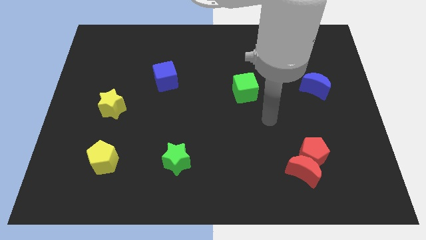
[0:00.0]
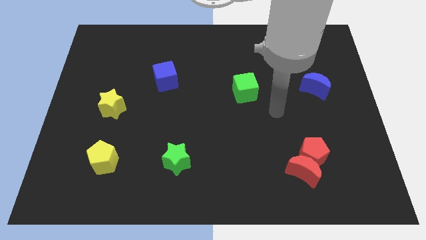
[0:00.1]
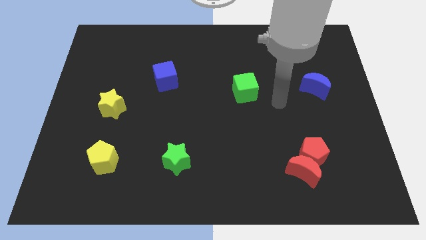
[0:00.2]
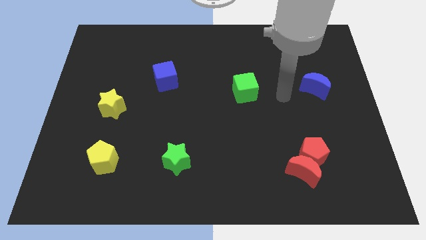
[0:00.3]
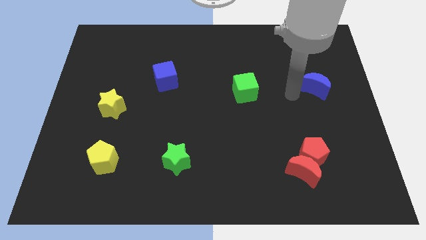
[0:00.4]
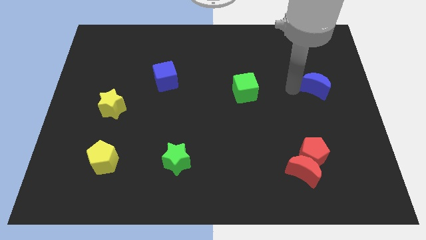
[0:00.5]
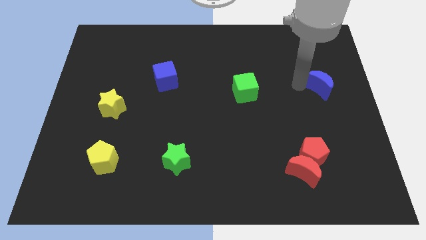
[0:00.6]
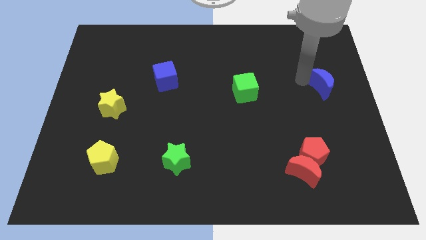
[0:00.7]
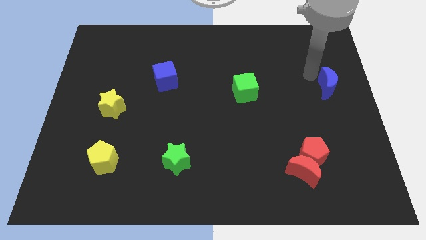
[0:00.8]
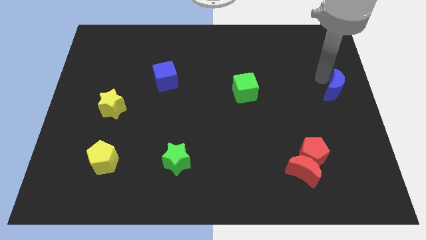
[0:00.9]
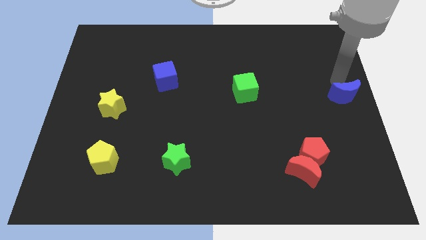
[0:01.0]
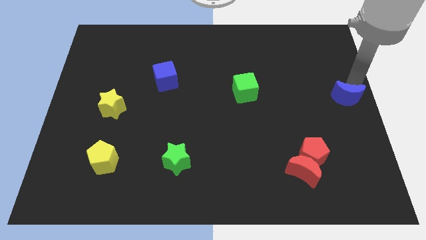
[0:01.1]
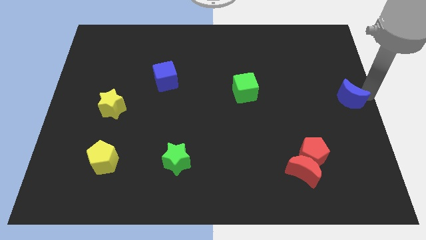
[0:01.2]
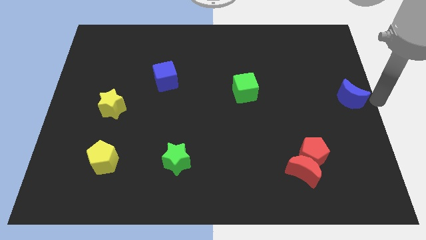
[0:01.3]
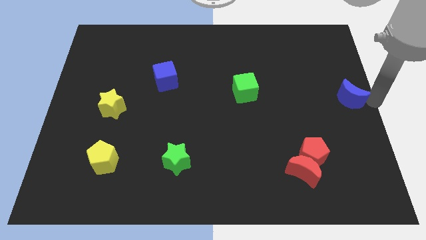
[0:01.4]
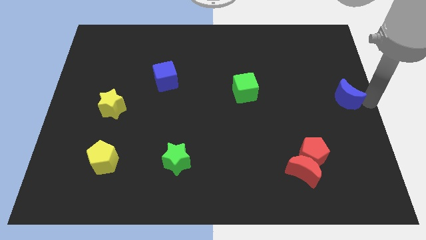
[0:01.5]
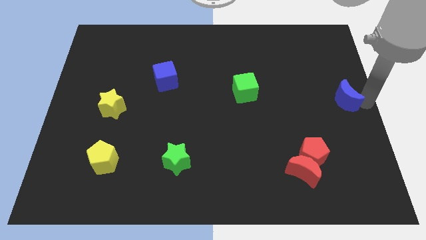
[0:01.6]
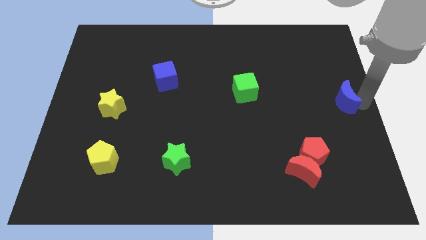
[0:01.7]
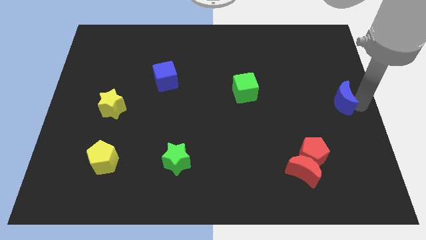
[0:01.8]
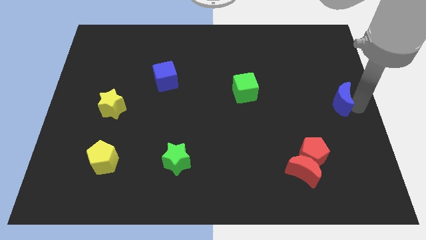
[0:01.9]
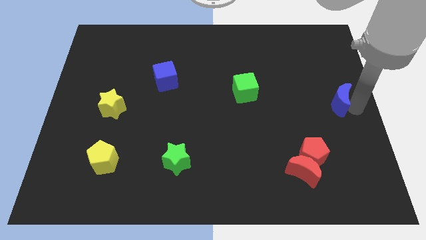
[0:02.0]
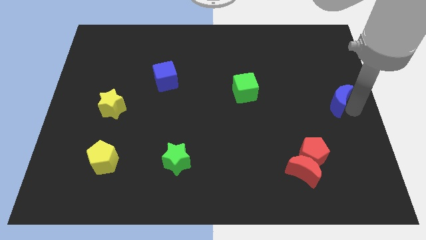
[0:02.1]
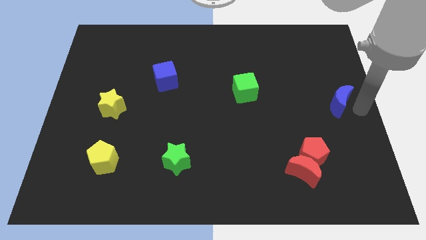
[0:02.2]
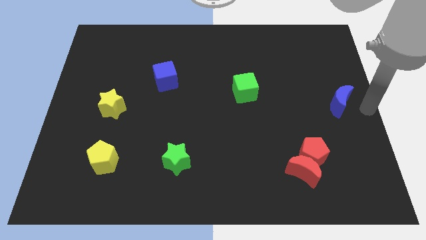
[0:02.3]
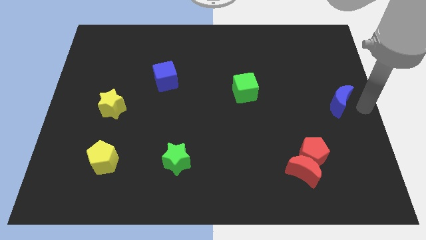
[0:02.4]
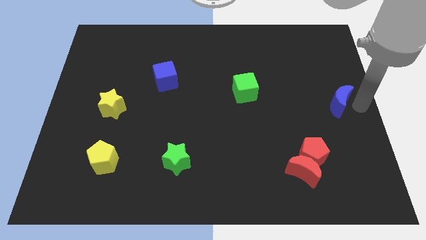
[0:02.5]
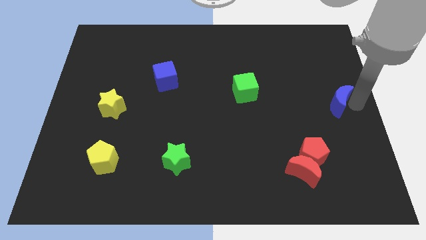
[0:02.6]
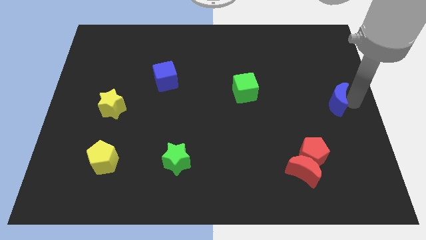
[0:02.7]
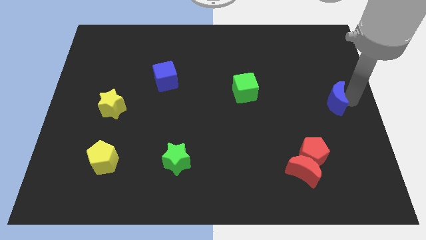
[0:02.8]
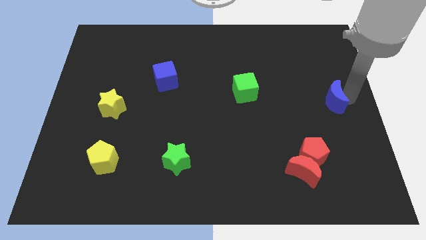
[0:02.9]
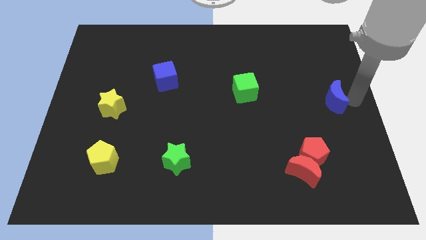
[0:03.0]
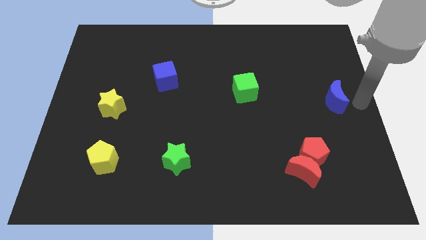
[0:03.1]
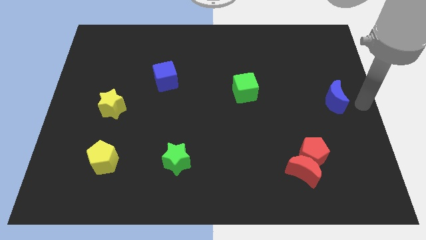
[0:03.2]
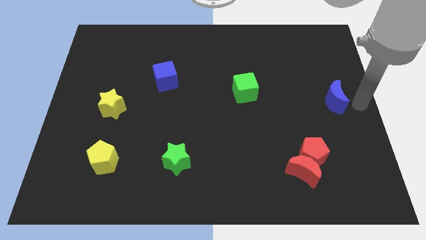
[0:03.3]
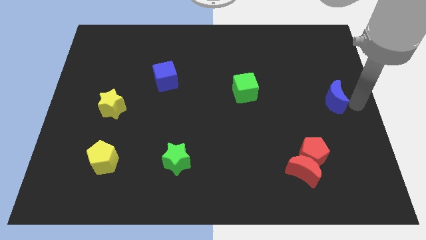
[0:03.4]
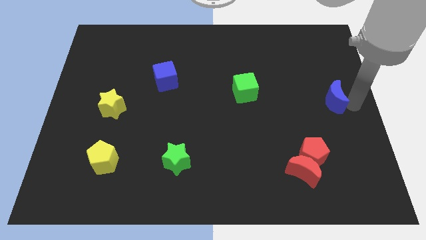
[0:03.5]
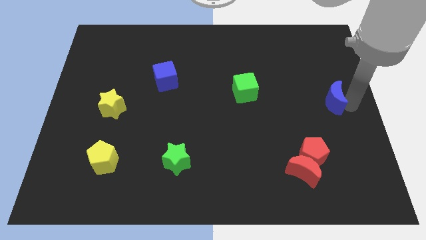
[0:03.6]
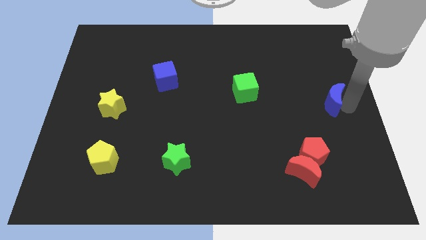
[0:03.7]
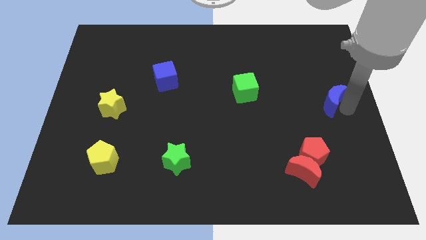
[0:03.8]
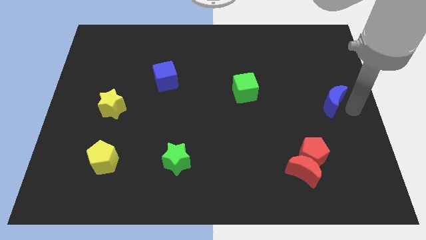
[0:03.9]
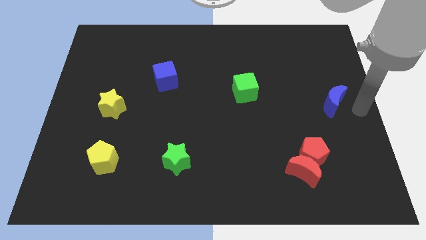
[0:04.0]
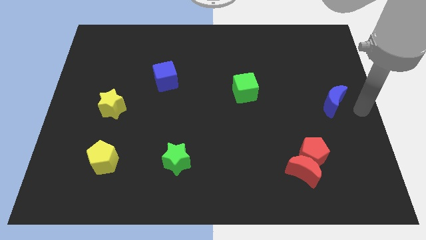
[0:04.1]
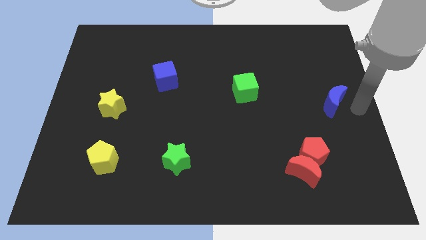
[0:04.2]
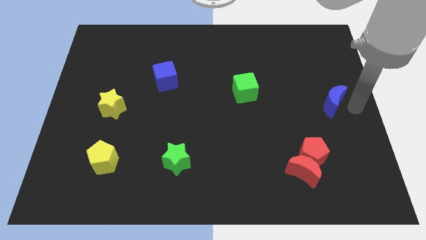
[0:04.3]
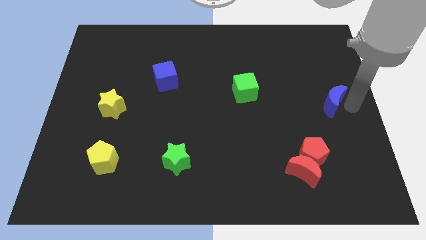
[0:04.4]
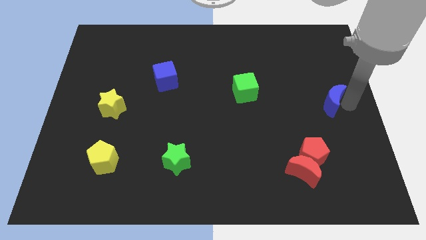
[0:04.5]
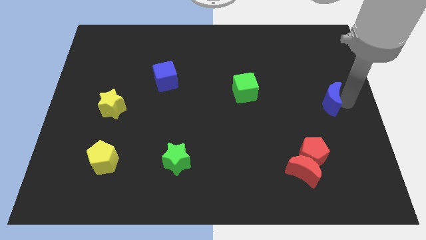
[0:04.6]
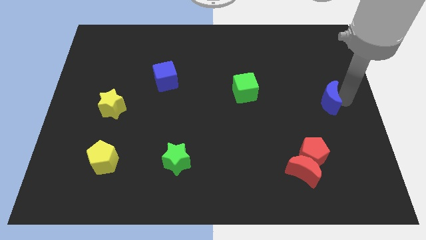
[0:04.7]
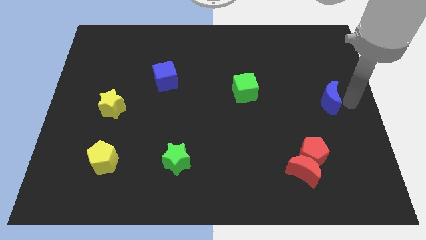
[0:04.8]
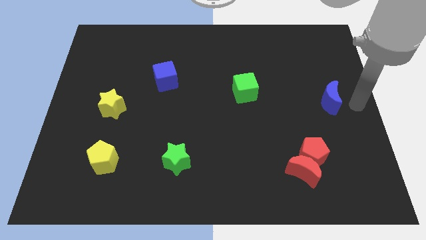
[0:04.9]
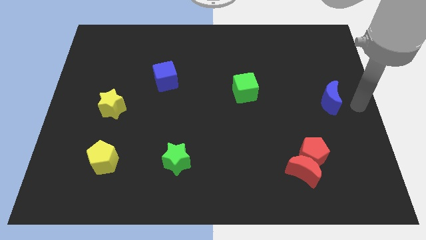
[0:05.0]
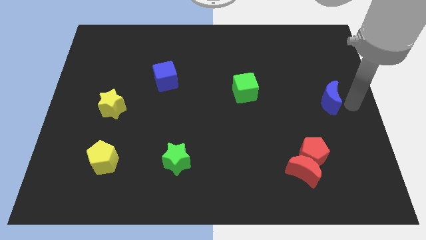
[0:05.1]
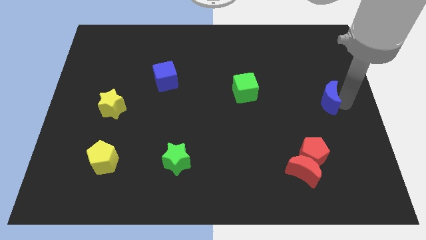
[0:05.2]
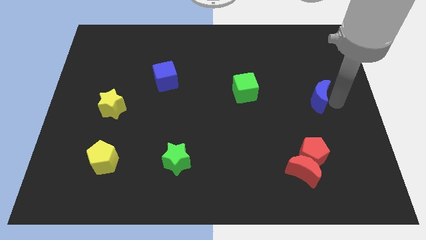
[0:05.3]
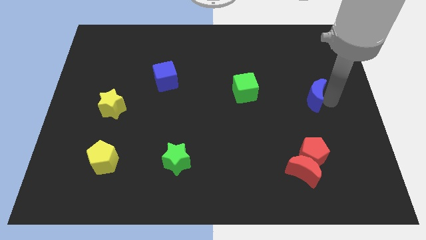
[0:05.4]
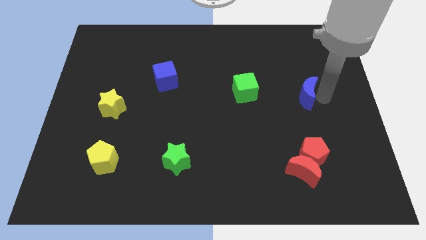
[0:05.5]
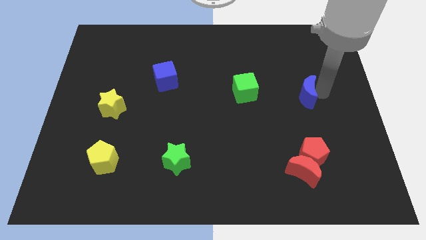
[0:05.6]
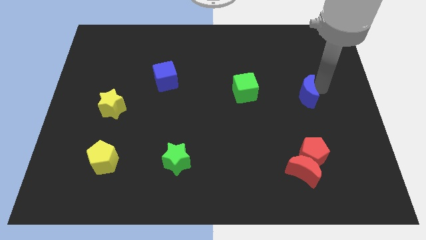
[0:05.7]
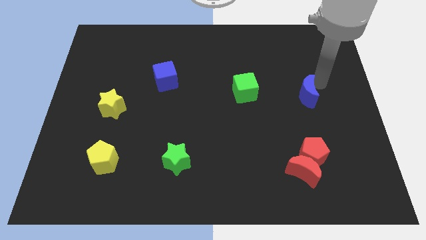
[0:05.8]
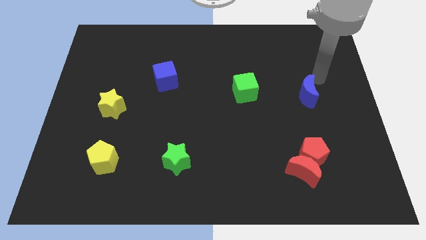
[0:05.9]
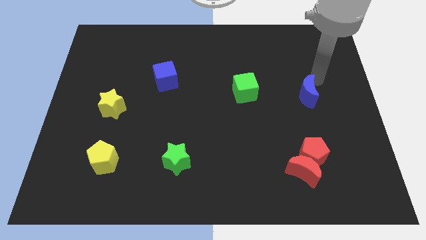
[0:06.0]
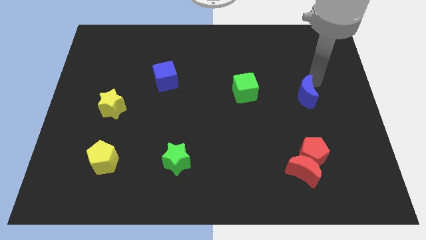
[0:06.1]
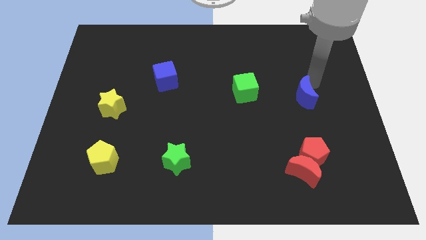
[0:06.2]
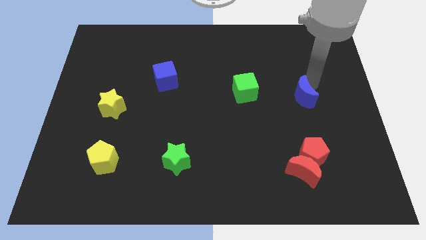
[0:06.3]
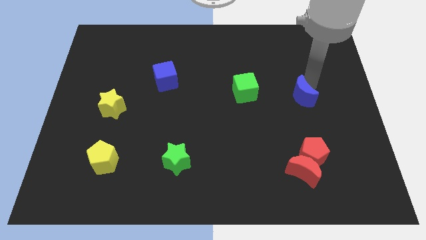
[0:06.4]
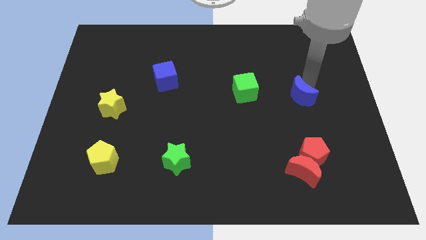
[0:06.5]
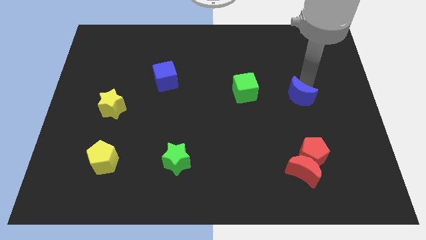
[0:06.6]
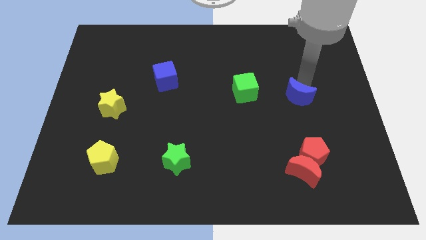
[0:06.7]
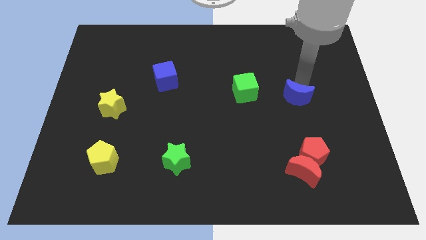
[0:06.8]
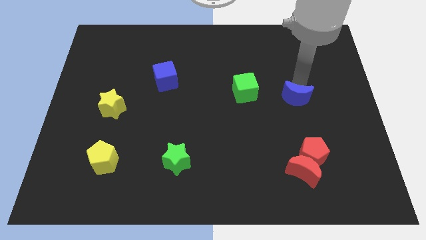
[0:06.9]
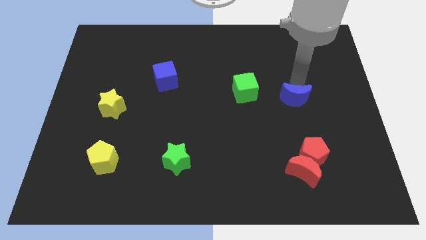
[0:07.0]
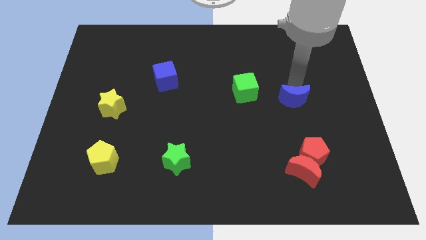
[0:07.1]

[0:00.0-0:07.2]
slide the blue moon down and then left slightly

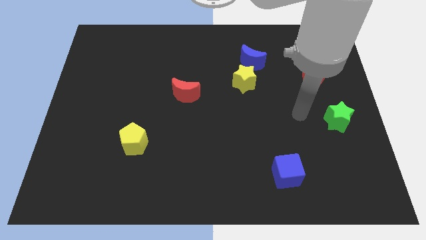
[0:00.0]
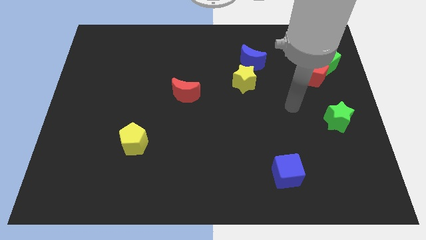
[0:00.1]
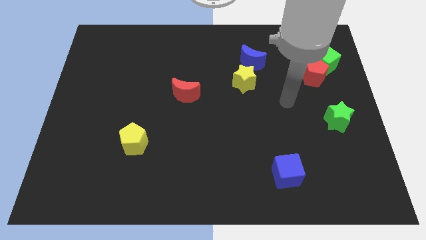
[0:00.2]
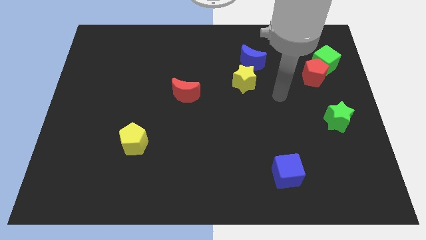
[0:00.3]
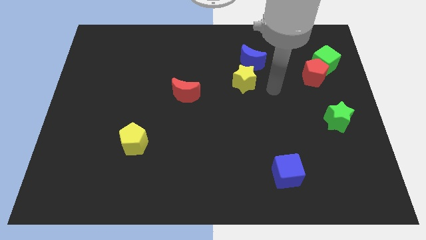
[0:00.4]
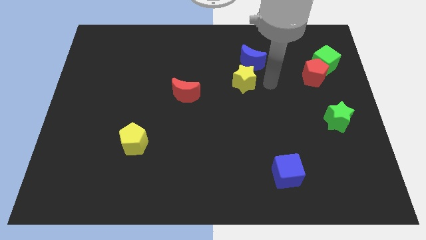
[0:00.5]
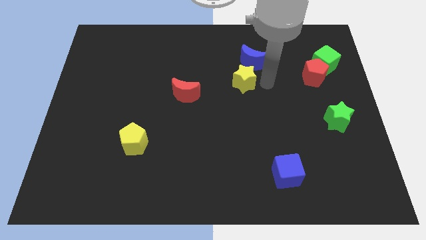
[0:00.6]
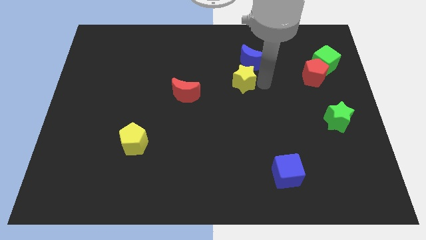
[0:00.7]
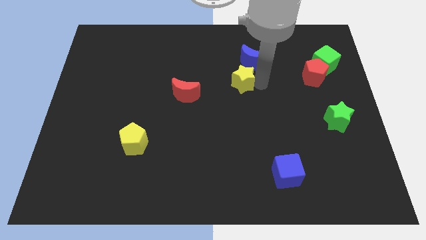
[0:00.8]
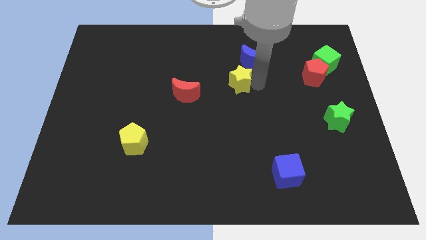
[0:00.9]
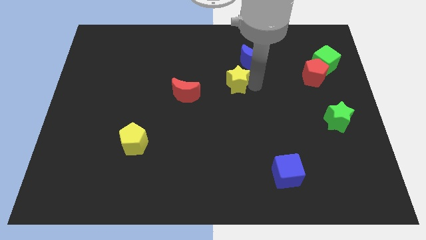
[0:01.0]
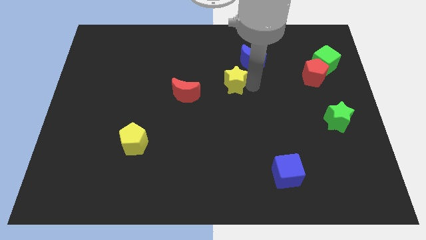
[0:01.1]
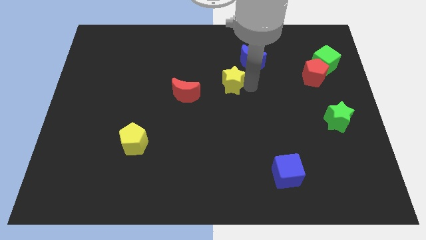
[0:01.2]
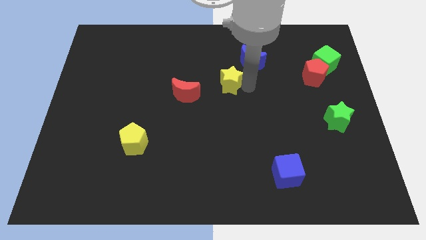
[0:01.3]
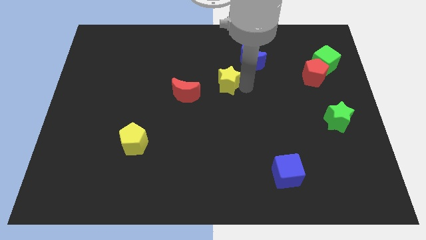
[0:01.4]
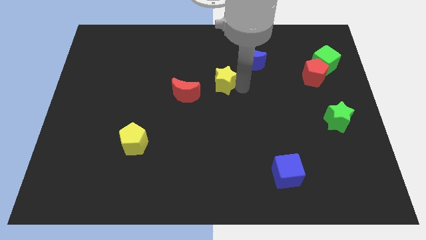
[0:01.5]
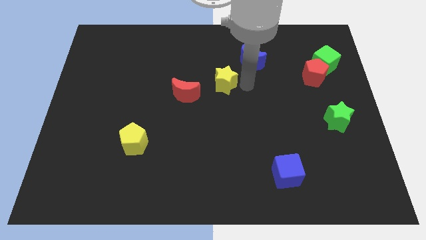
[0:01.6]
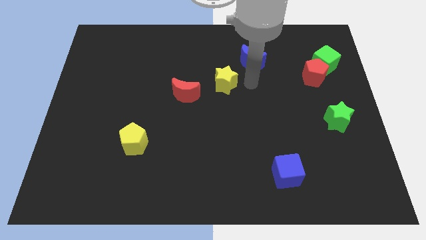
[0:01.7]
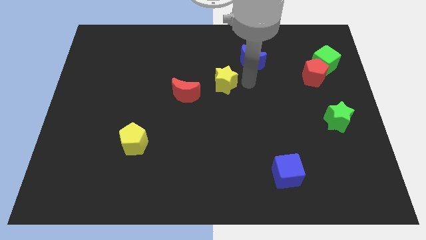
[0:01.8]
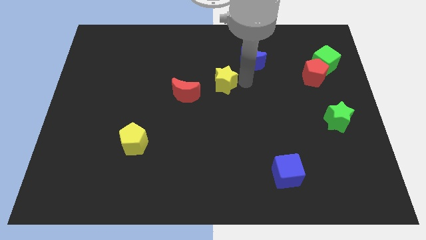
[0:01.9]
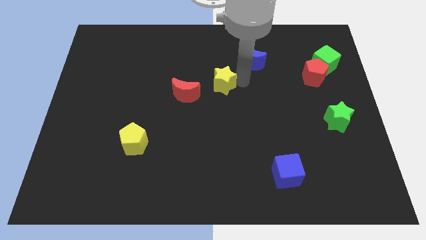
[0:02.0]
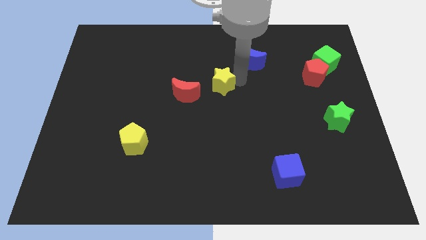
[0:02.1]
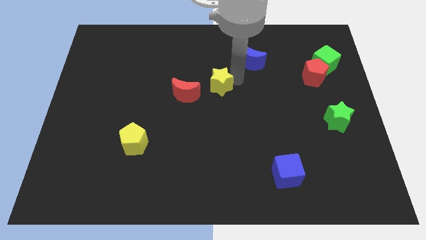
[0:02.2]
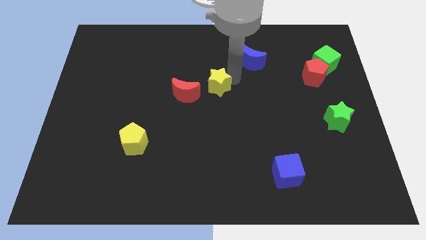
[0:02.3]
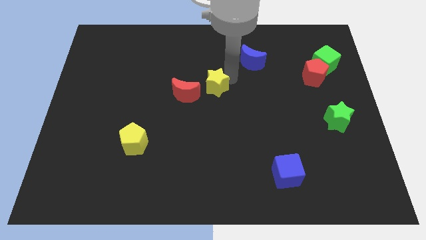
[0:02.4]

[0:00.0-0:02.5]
slide the yellow star a little to the left
